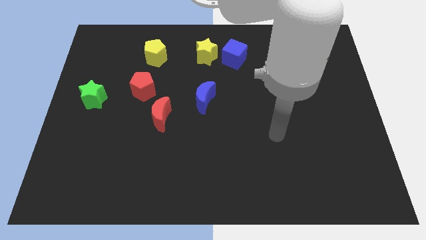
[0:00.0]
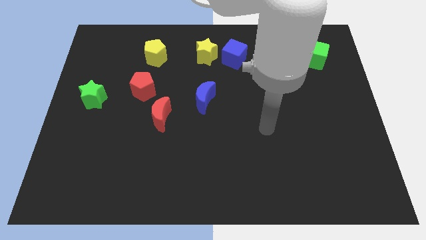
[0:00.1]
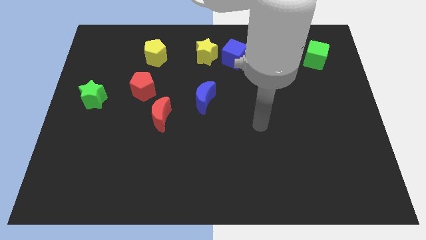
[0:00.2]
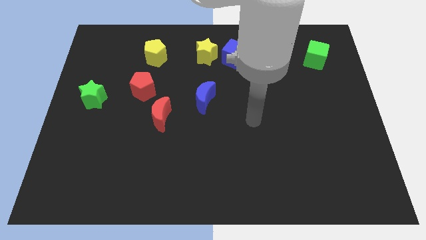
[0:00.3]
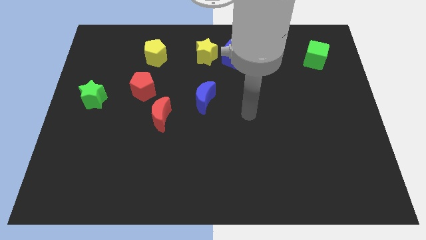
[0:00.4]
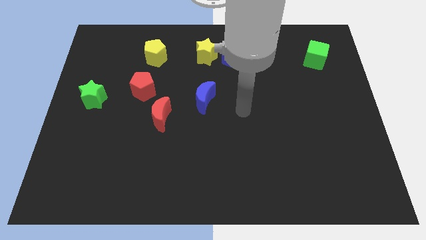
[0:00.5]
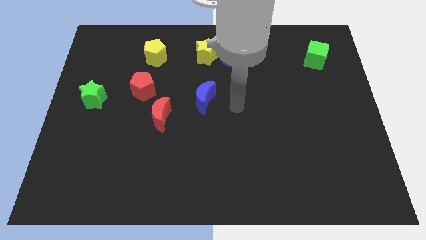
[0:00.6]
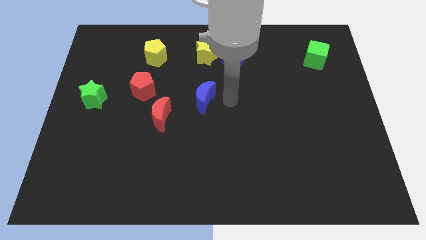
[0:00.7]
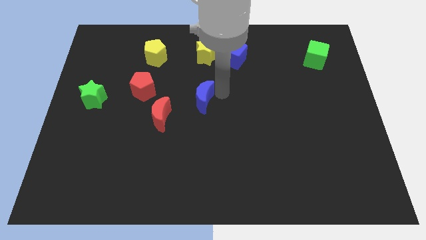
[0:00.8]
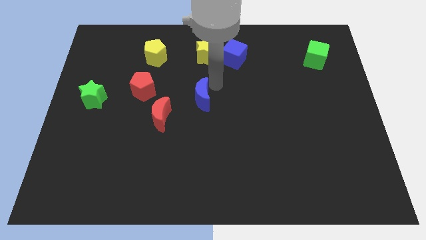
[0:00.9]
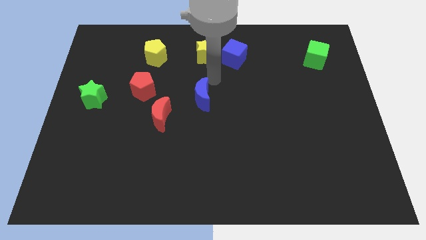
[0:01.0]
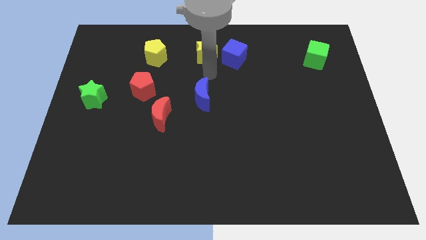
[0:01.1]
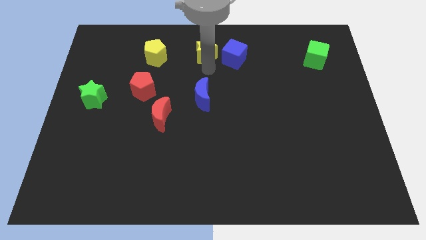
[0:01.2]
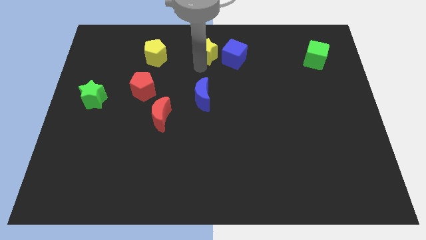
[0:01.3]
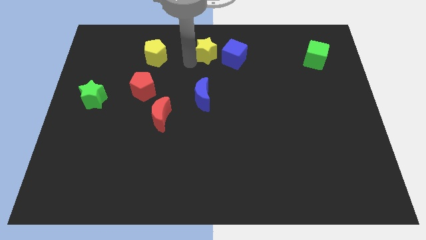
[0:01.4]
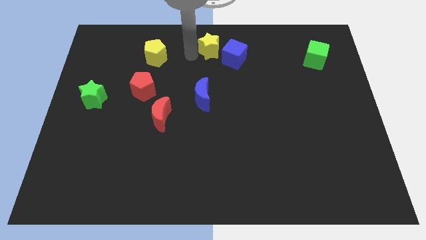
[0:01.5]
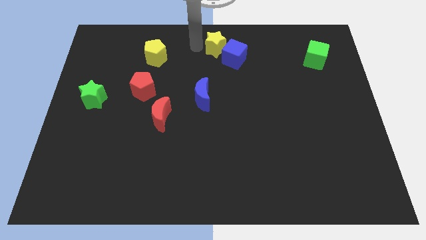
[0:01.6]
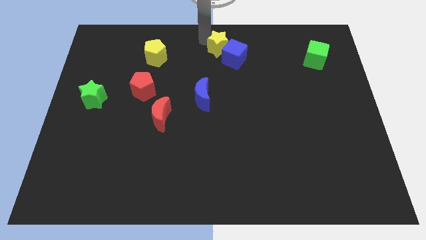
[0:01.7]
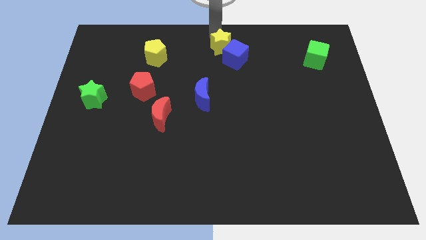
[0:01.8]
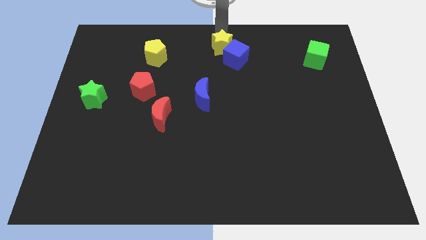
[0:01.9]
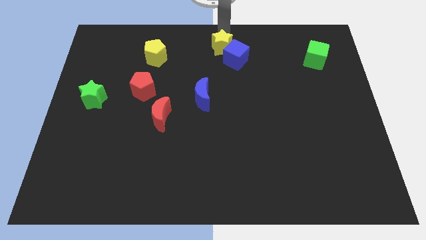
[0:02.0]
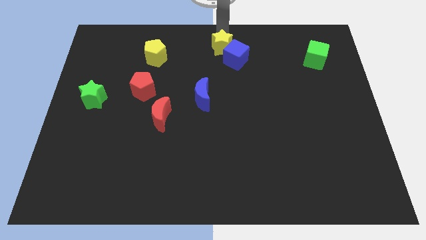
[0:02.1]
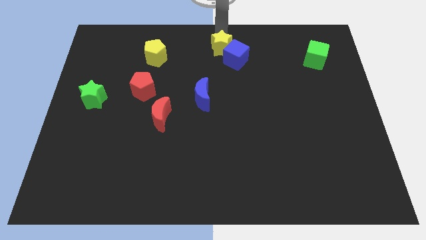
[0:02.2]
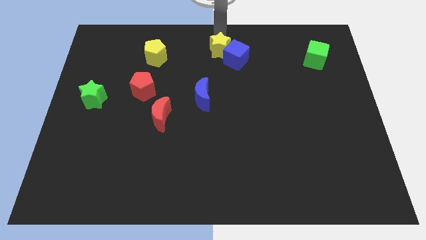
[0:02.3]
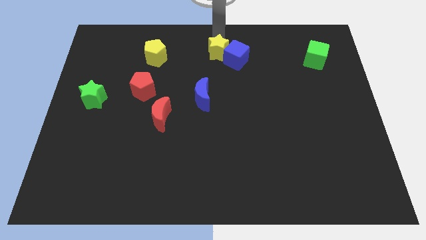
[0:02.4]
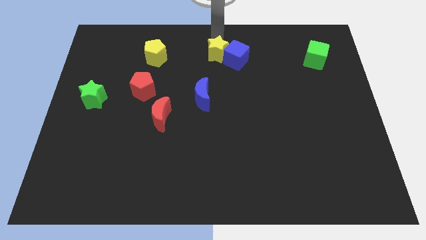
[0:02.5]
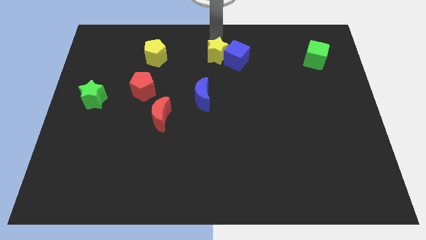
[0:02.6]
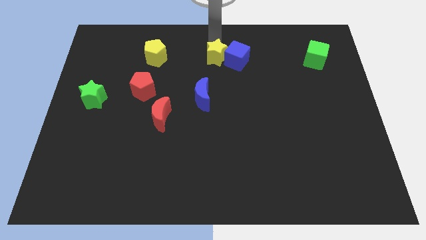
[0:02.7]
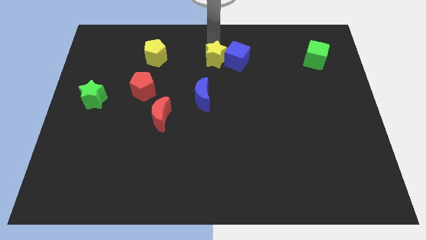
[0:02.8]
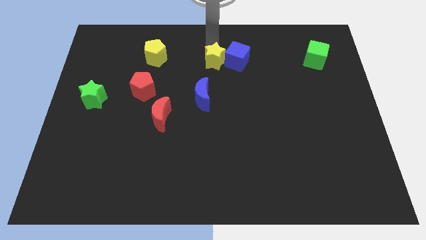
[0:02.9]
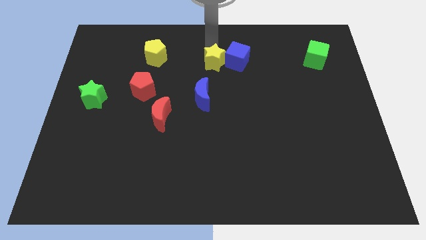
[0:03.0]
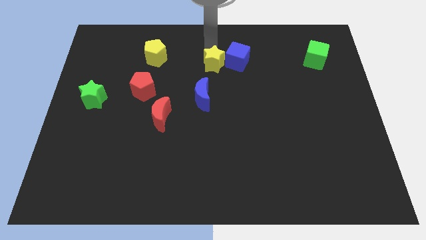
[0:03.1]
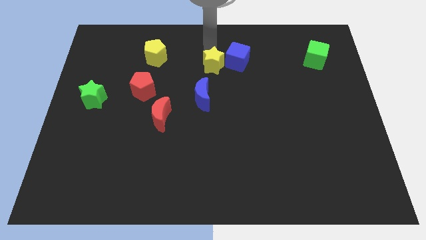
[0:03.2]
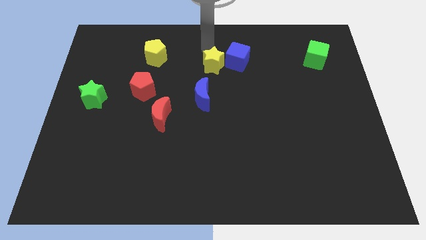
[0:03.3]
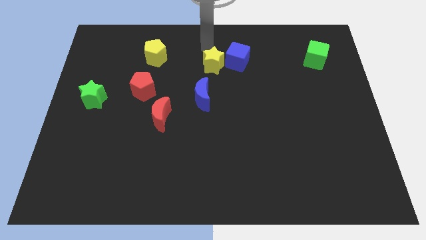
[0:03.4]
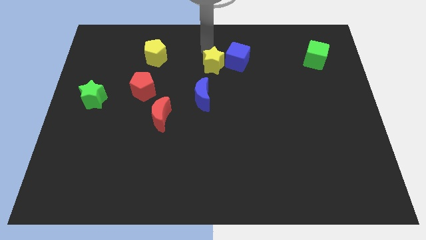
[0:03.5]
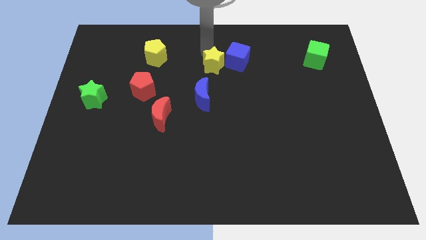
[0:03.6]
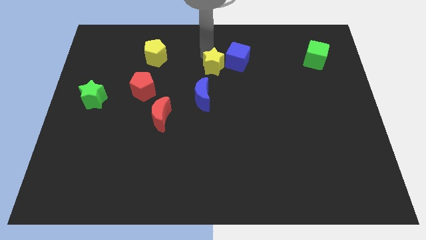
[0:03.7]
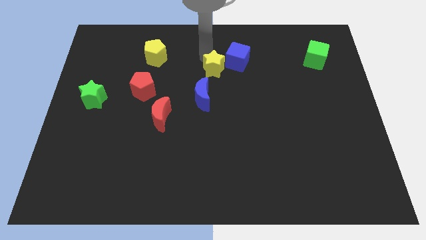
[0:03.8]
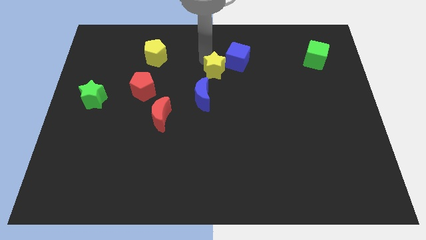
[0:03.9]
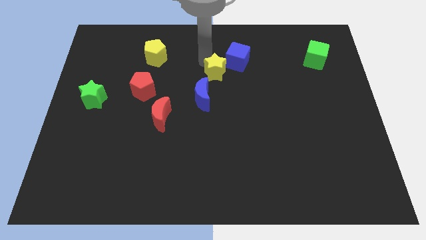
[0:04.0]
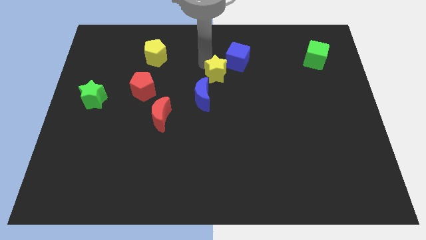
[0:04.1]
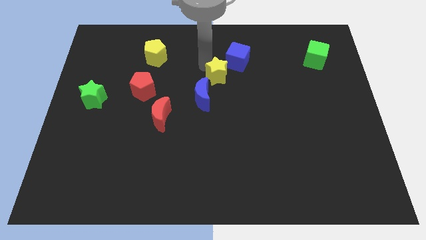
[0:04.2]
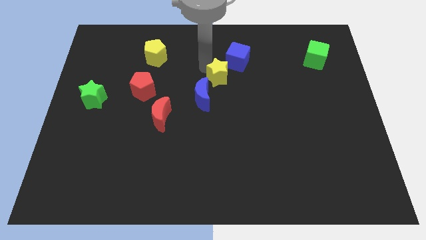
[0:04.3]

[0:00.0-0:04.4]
slide the yellow star downwards a little bit

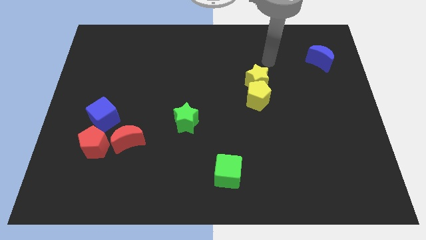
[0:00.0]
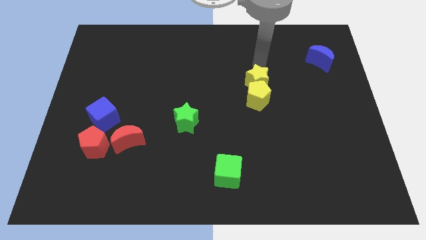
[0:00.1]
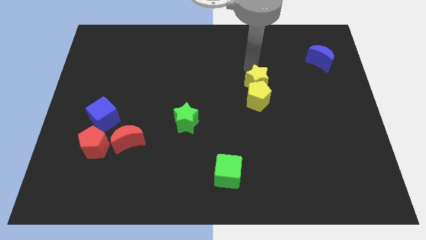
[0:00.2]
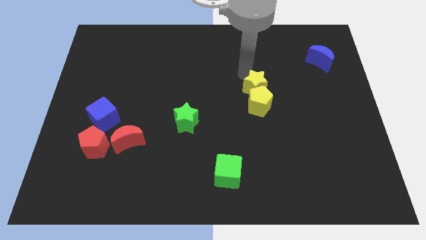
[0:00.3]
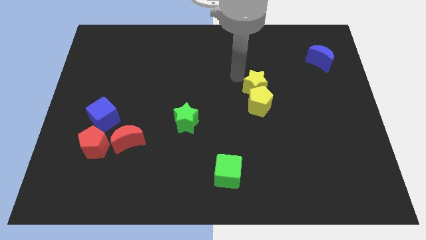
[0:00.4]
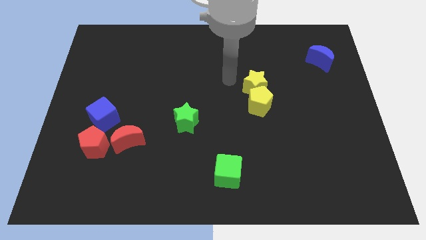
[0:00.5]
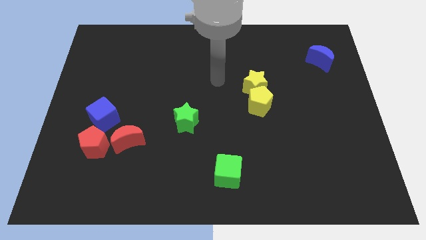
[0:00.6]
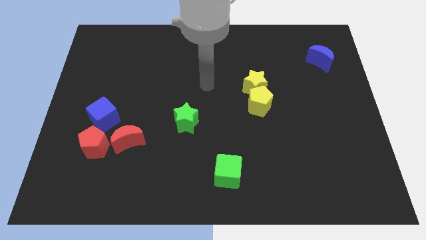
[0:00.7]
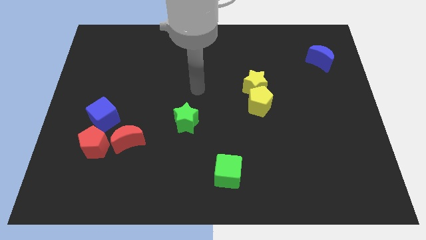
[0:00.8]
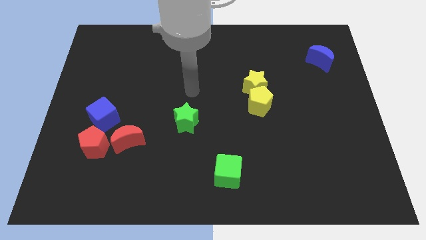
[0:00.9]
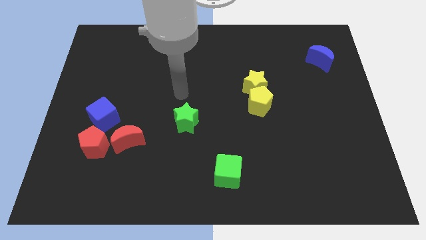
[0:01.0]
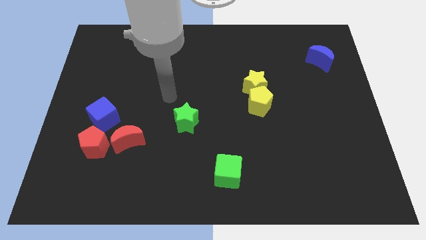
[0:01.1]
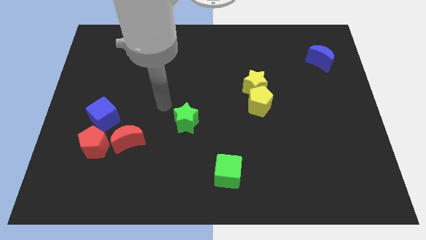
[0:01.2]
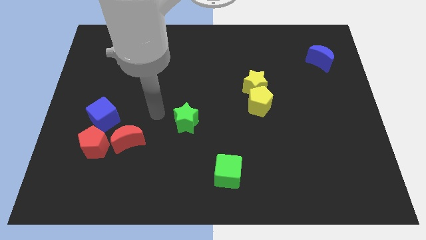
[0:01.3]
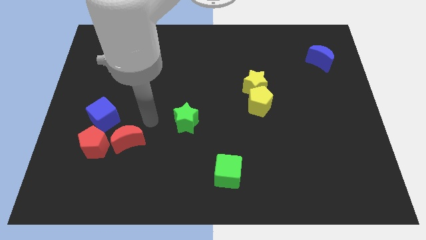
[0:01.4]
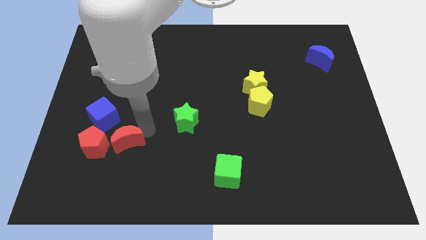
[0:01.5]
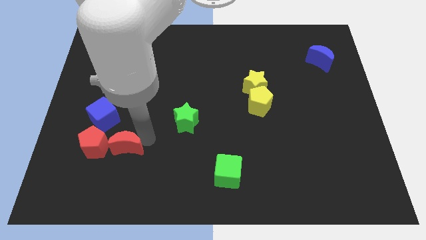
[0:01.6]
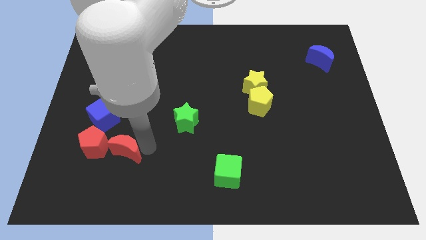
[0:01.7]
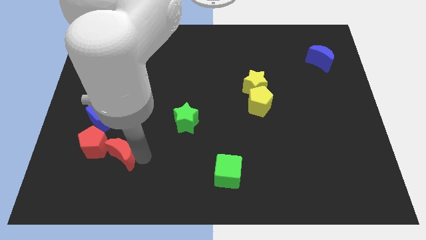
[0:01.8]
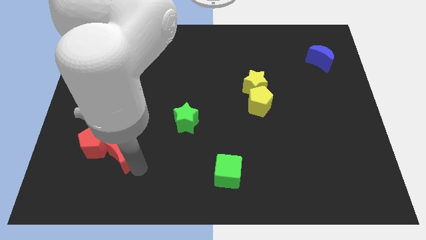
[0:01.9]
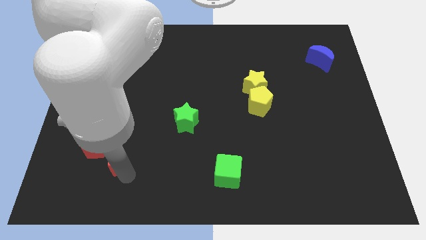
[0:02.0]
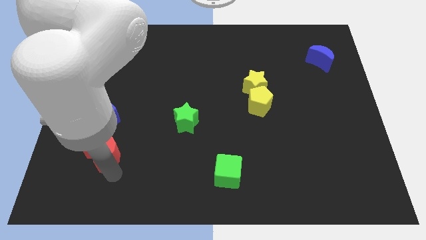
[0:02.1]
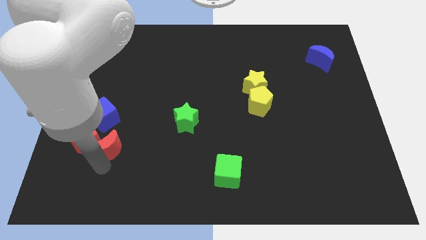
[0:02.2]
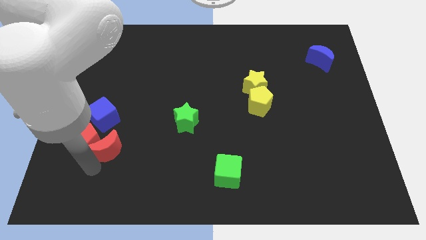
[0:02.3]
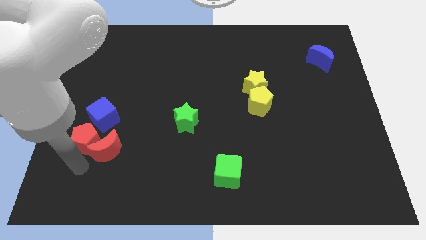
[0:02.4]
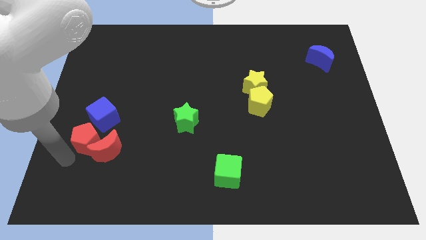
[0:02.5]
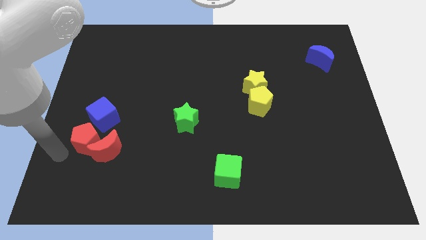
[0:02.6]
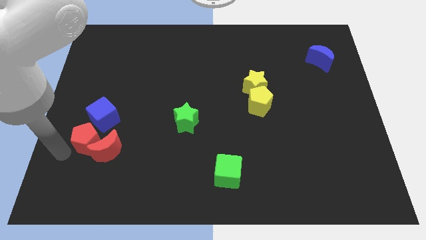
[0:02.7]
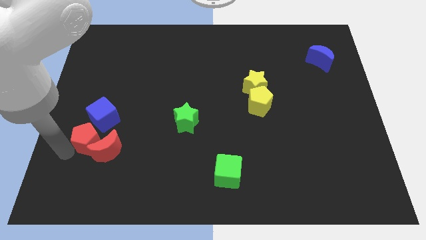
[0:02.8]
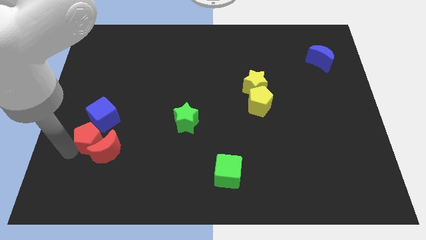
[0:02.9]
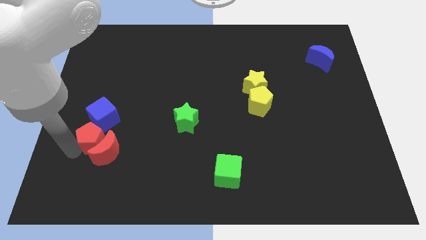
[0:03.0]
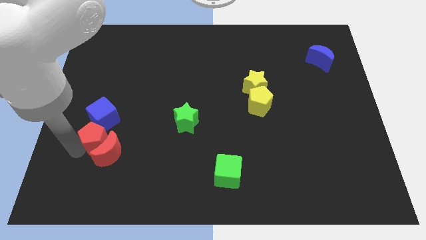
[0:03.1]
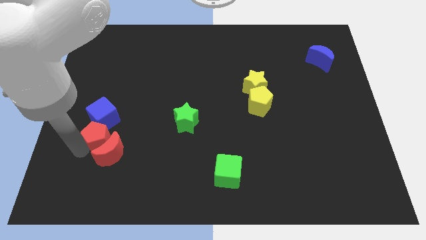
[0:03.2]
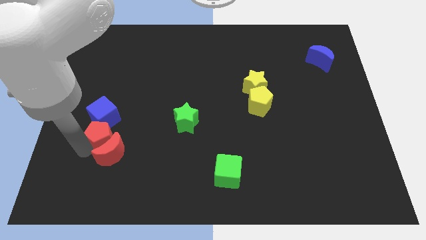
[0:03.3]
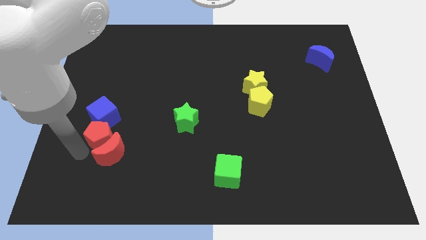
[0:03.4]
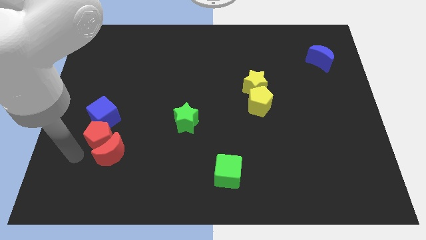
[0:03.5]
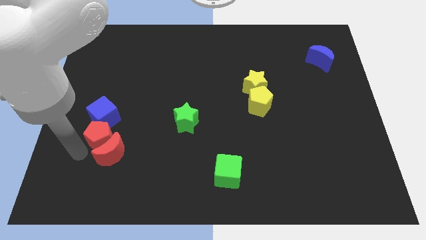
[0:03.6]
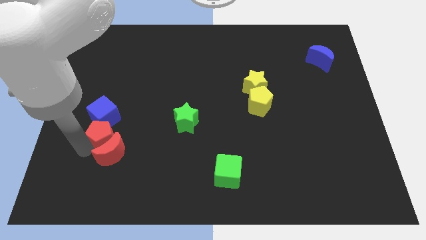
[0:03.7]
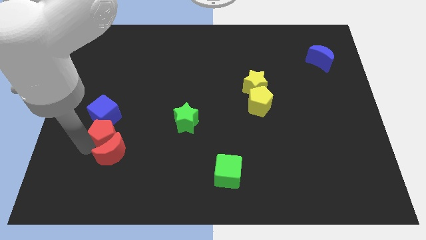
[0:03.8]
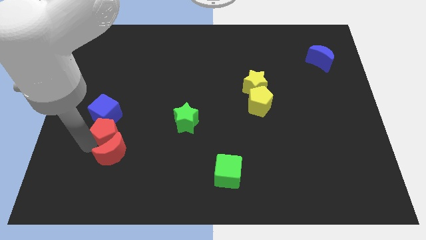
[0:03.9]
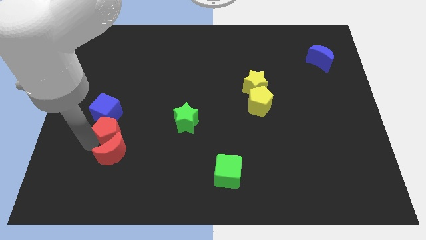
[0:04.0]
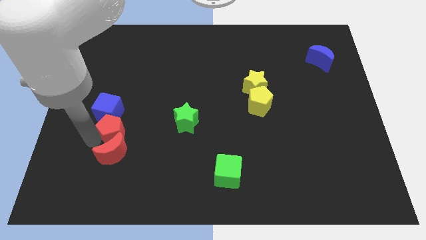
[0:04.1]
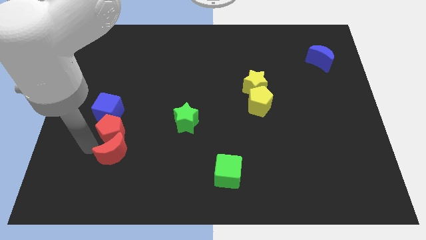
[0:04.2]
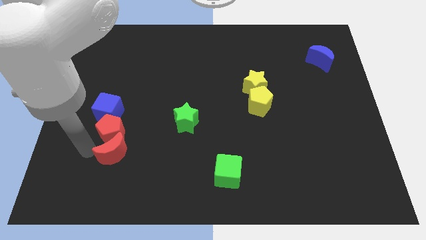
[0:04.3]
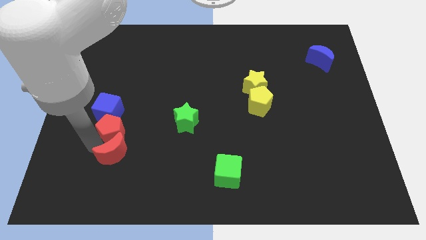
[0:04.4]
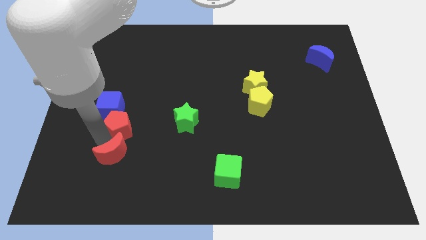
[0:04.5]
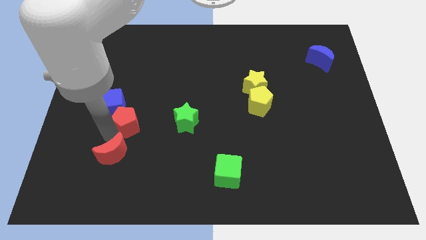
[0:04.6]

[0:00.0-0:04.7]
move the red pentagon somewhat upwards and right diagonally
